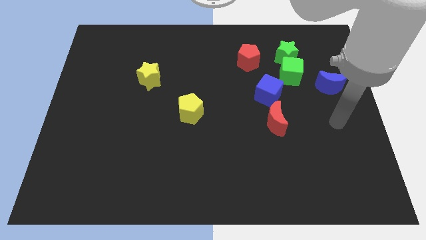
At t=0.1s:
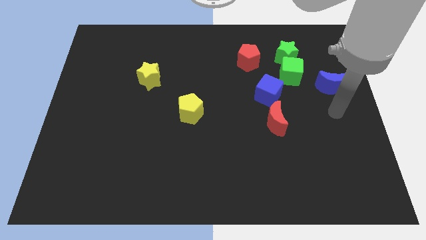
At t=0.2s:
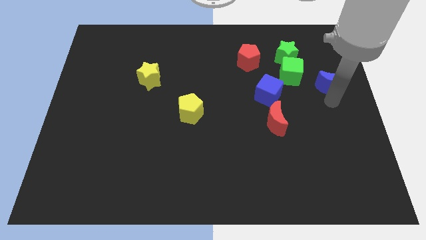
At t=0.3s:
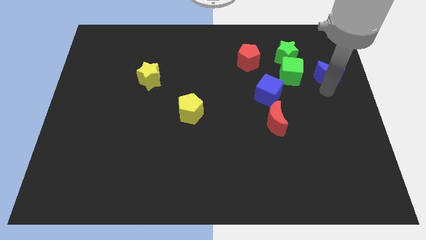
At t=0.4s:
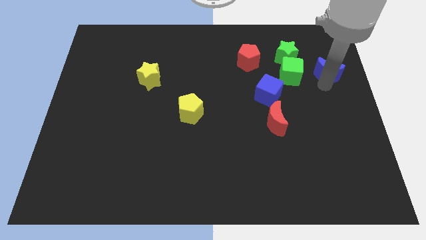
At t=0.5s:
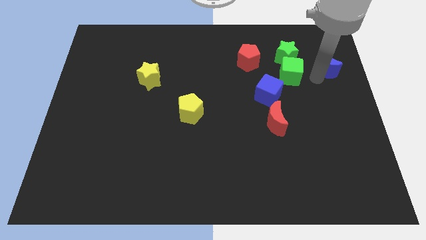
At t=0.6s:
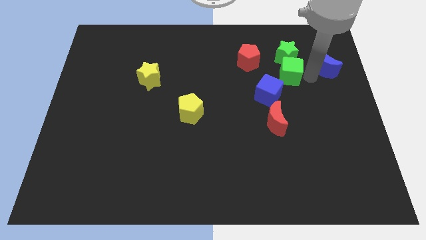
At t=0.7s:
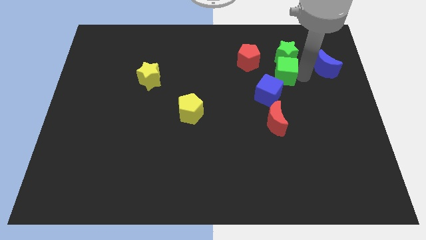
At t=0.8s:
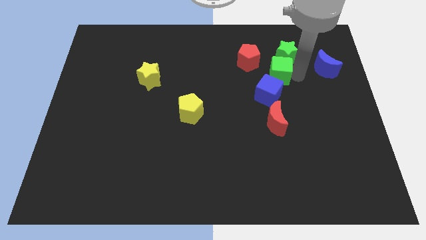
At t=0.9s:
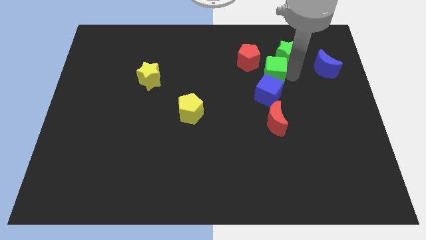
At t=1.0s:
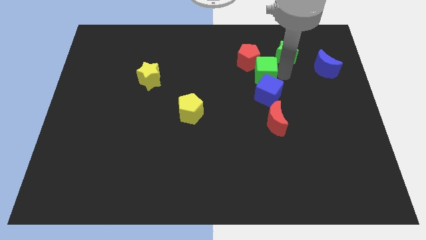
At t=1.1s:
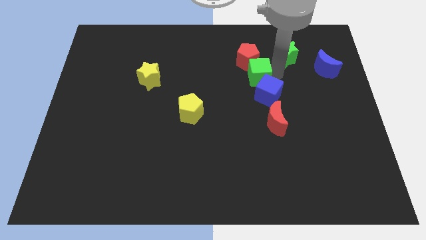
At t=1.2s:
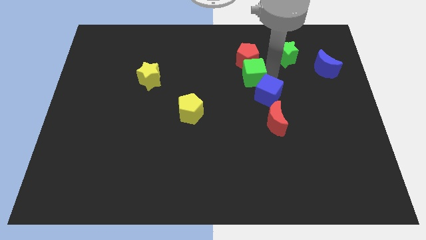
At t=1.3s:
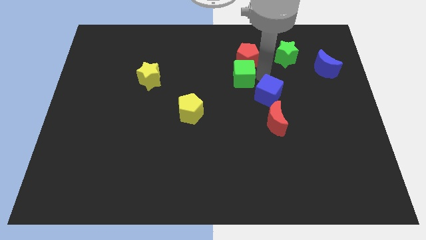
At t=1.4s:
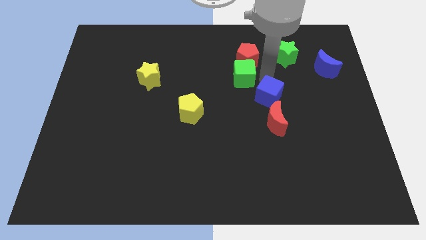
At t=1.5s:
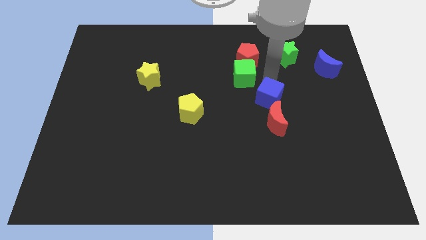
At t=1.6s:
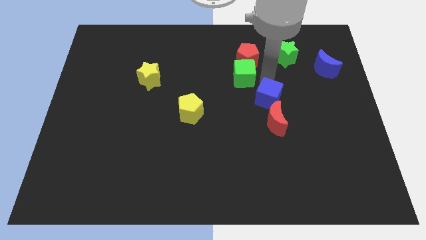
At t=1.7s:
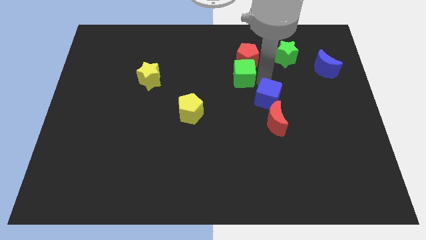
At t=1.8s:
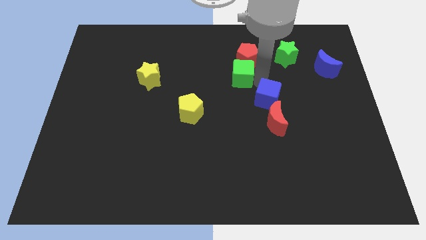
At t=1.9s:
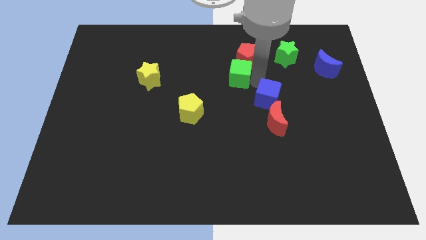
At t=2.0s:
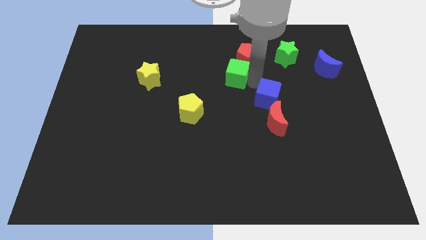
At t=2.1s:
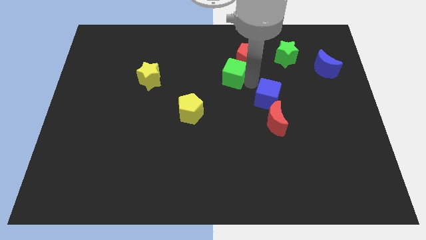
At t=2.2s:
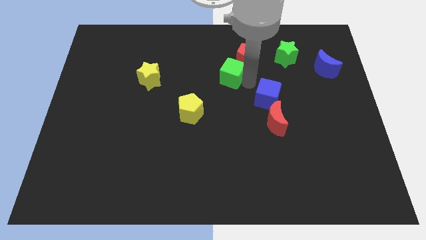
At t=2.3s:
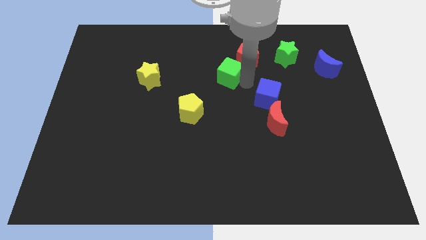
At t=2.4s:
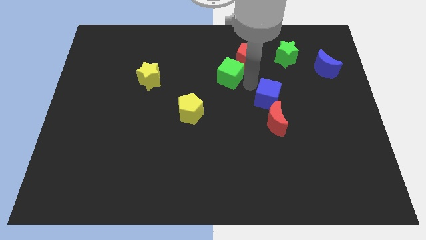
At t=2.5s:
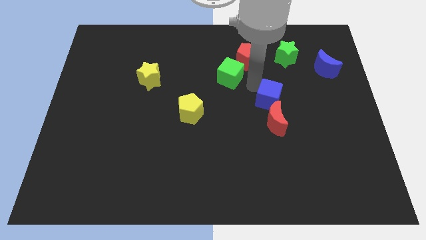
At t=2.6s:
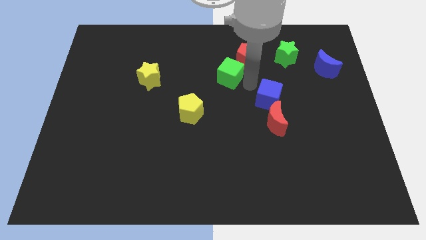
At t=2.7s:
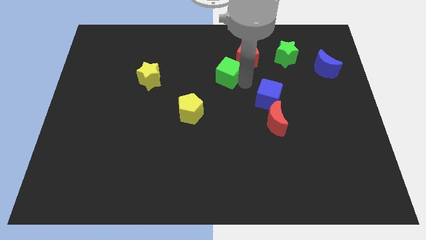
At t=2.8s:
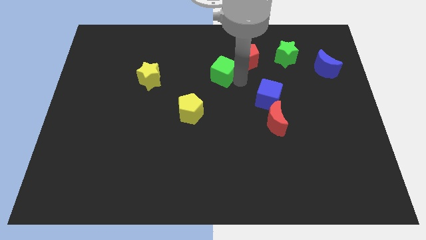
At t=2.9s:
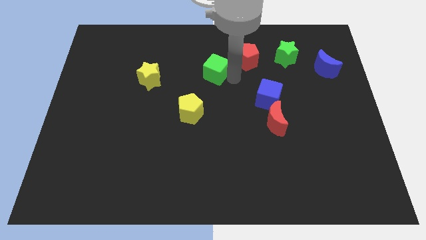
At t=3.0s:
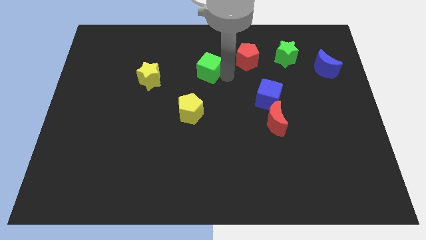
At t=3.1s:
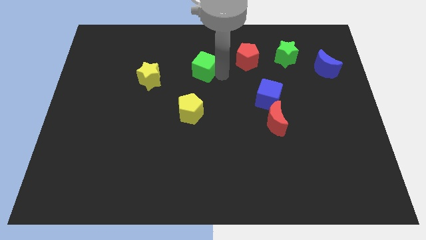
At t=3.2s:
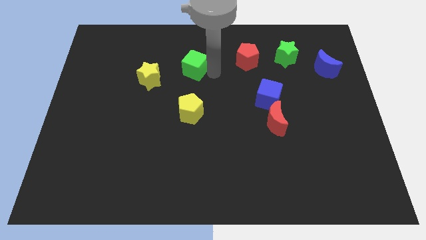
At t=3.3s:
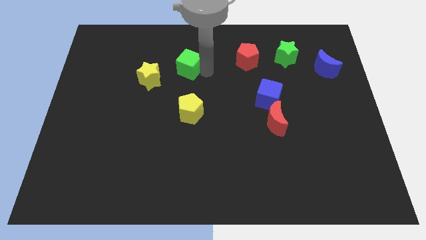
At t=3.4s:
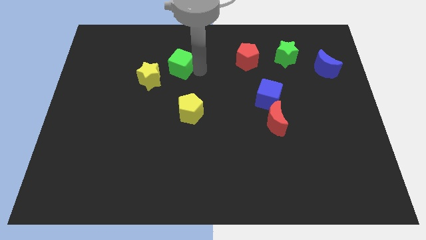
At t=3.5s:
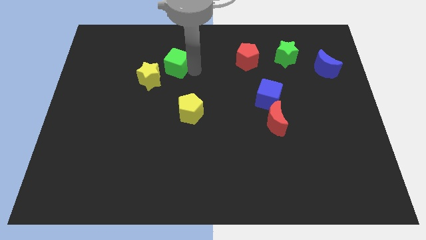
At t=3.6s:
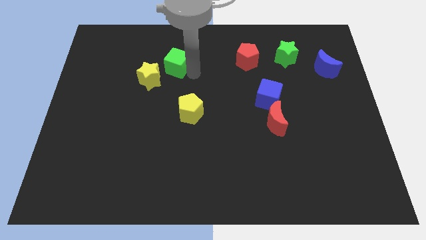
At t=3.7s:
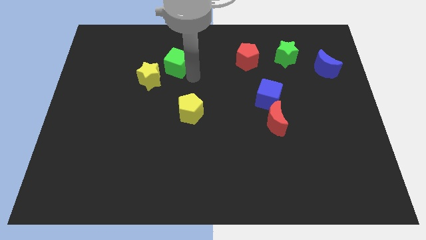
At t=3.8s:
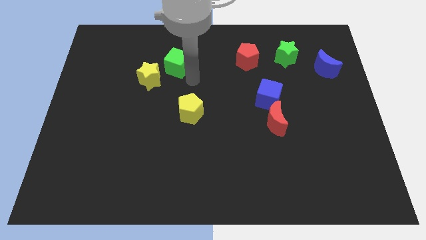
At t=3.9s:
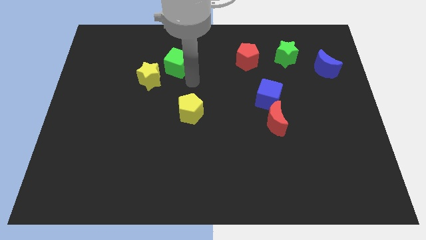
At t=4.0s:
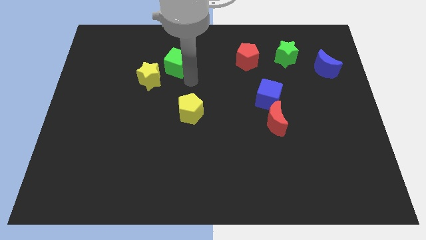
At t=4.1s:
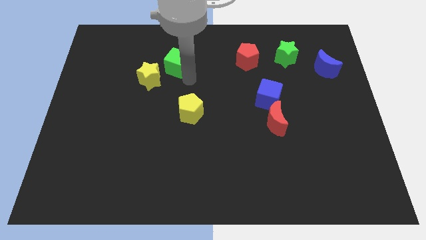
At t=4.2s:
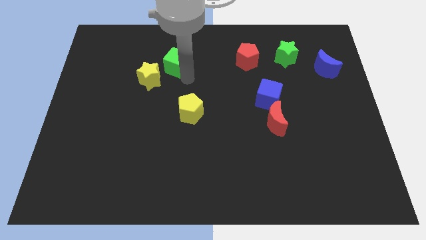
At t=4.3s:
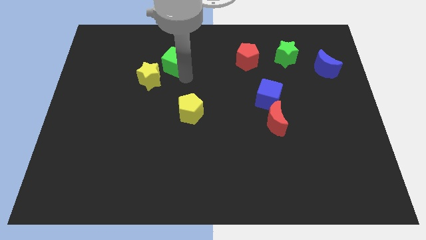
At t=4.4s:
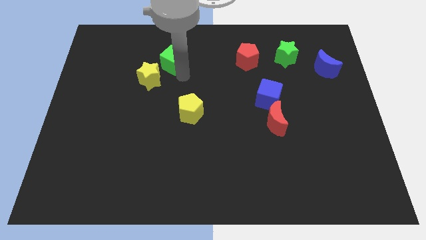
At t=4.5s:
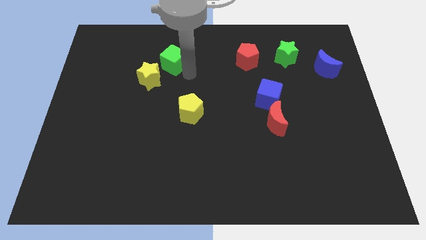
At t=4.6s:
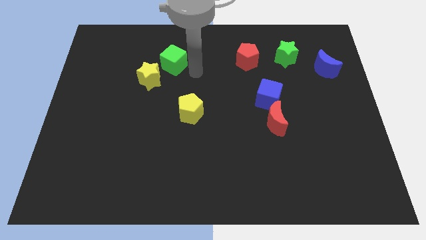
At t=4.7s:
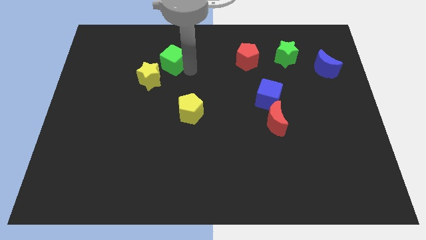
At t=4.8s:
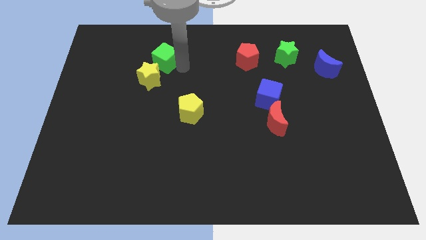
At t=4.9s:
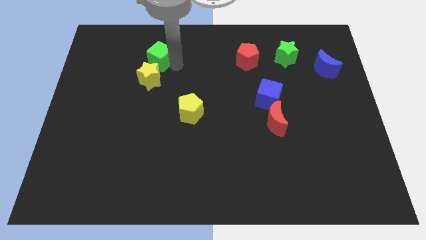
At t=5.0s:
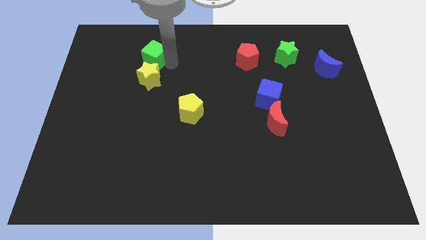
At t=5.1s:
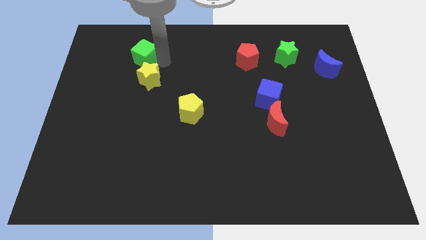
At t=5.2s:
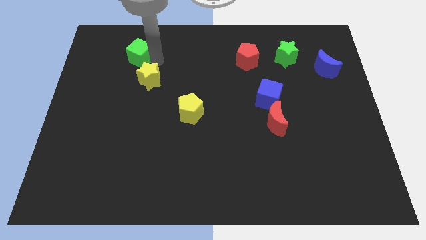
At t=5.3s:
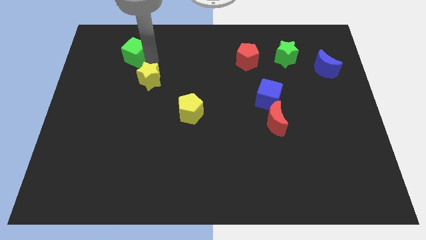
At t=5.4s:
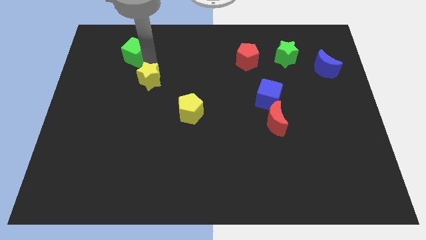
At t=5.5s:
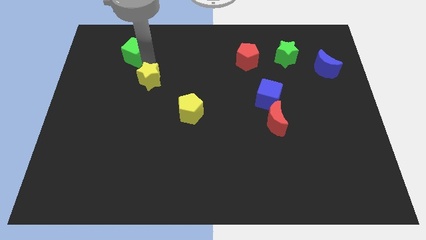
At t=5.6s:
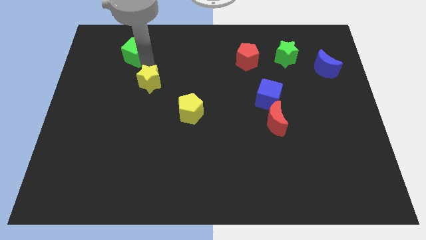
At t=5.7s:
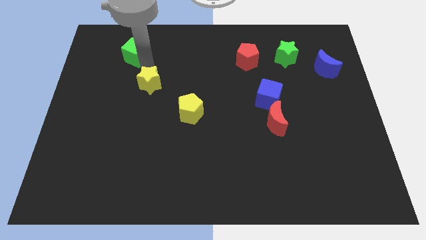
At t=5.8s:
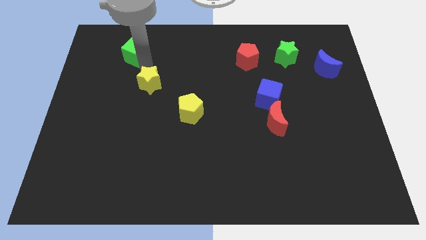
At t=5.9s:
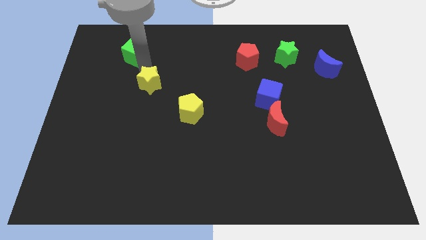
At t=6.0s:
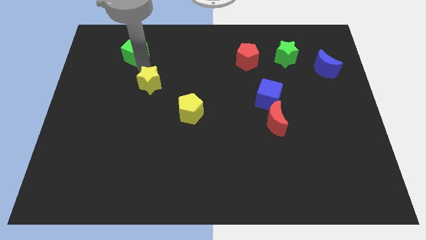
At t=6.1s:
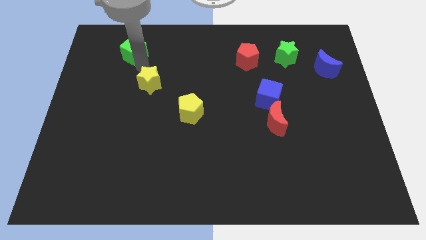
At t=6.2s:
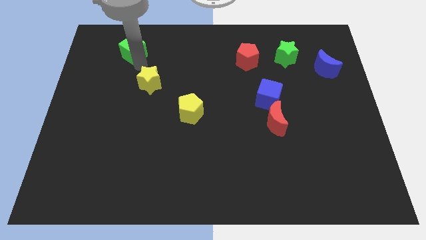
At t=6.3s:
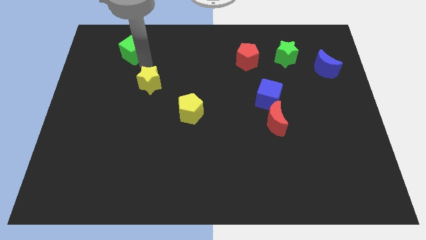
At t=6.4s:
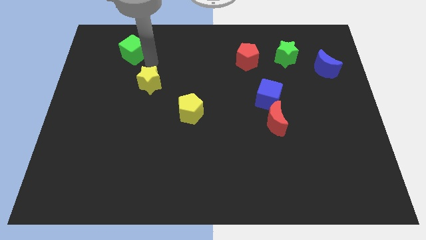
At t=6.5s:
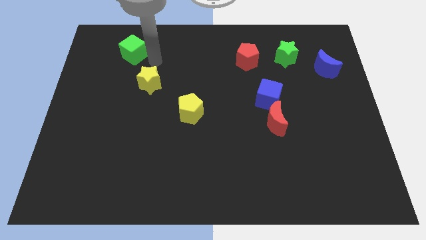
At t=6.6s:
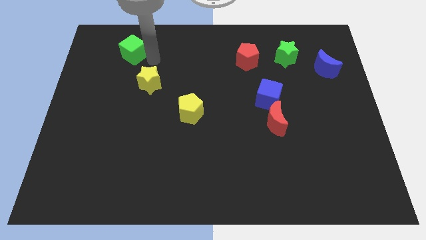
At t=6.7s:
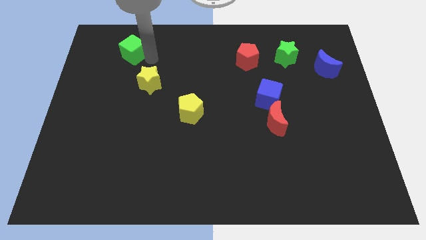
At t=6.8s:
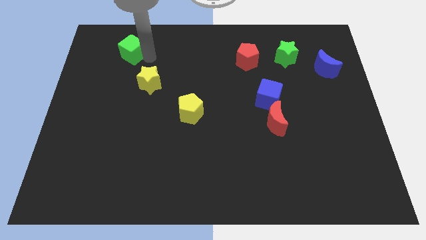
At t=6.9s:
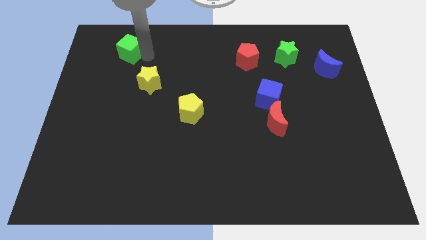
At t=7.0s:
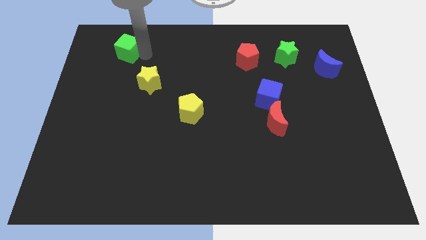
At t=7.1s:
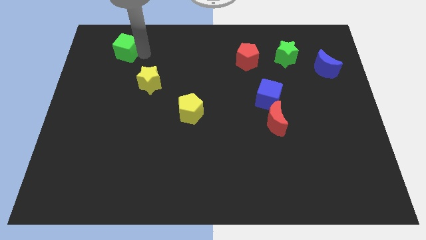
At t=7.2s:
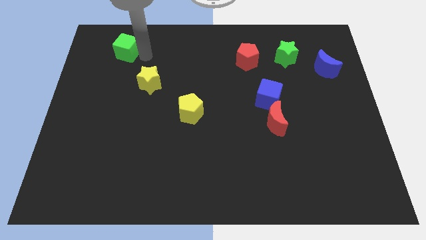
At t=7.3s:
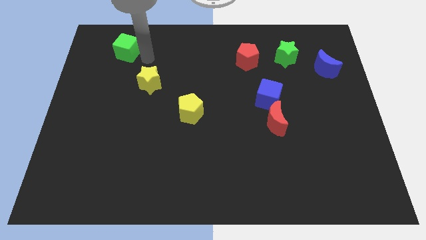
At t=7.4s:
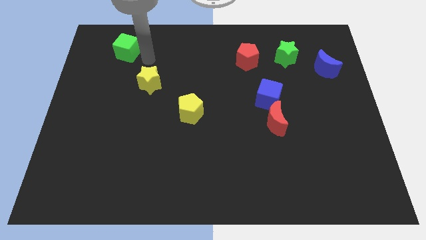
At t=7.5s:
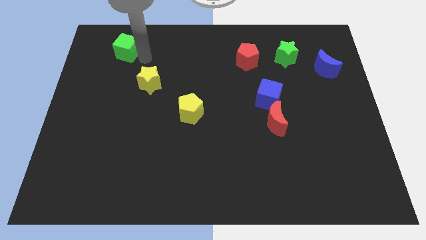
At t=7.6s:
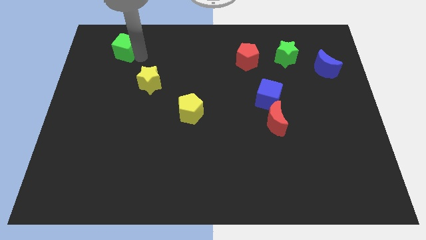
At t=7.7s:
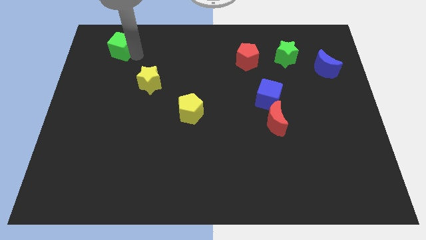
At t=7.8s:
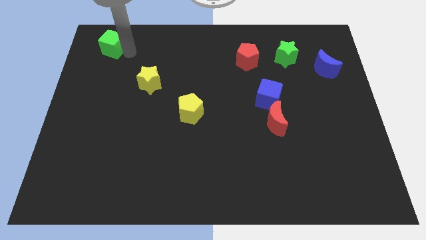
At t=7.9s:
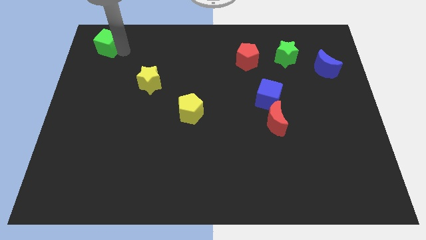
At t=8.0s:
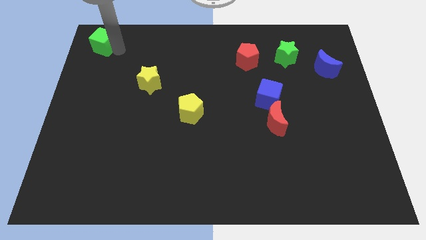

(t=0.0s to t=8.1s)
move the green cube to the top left corner
